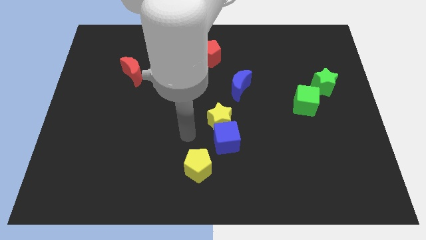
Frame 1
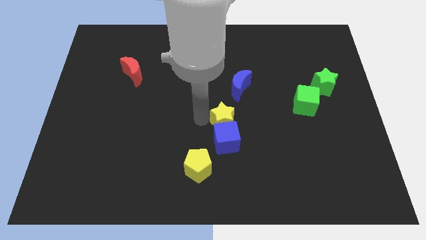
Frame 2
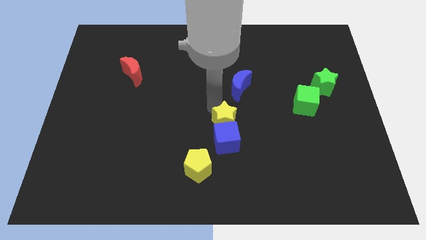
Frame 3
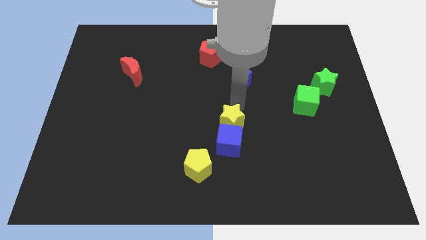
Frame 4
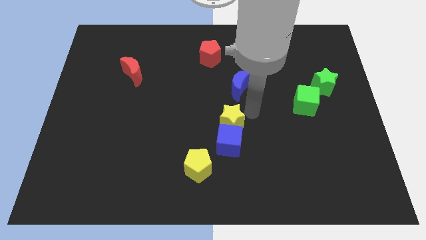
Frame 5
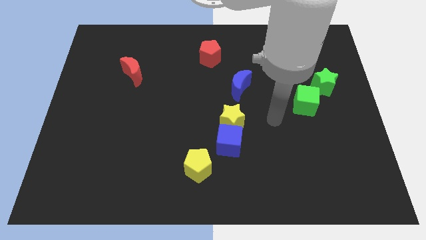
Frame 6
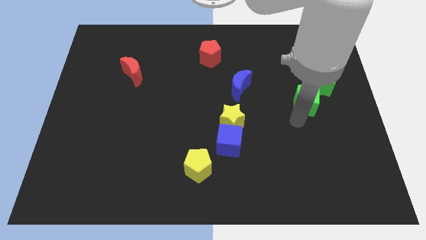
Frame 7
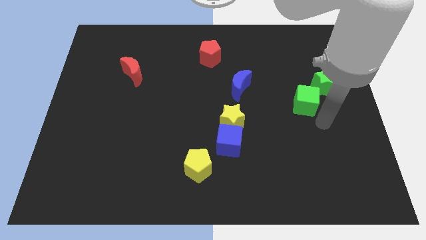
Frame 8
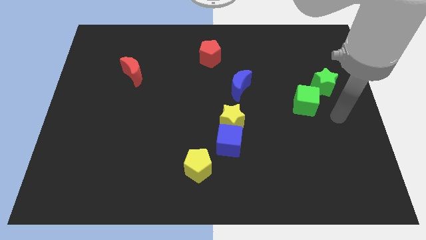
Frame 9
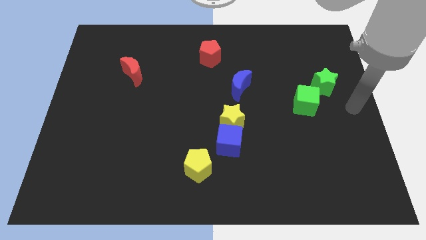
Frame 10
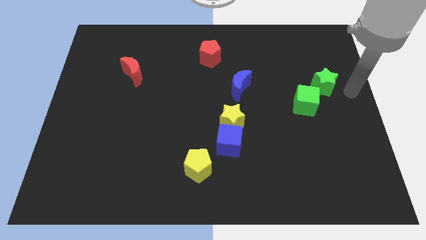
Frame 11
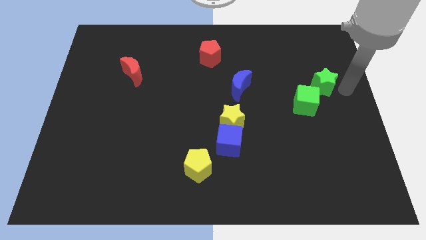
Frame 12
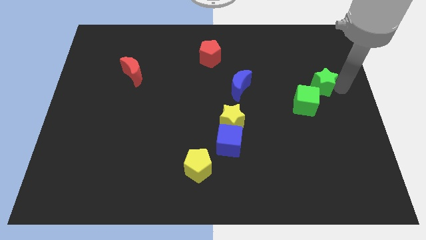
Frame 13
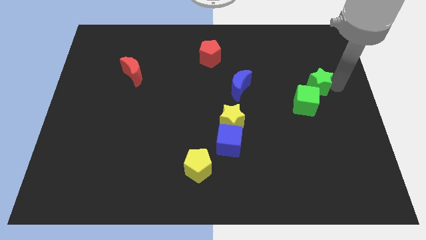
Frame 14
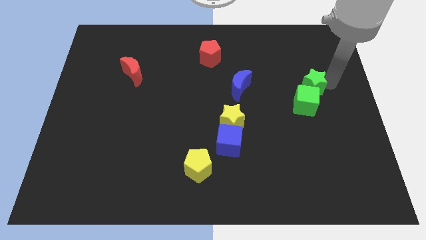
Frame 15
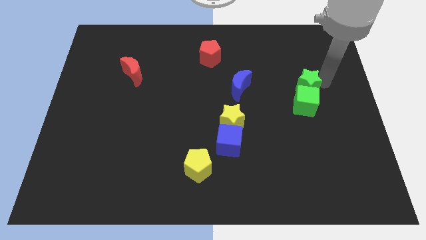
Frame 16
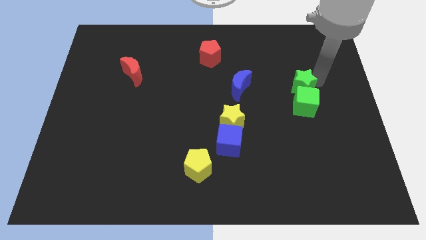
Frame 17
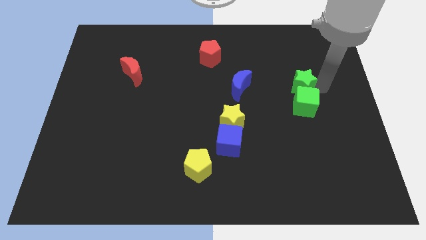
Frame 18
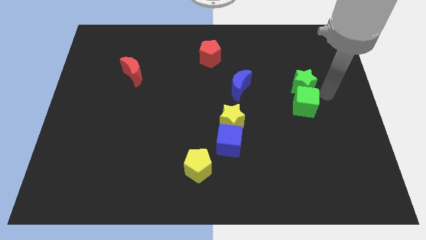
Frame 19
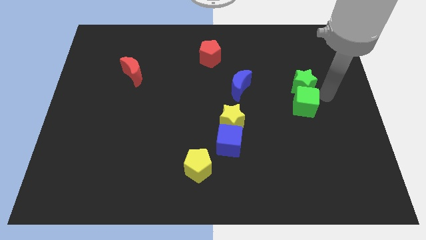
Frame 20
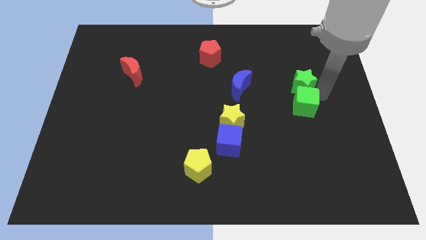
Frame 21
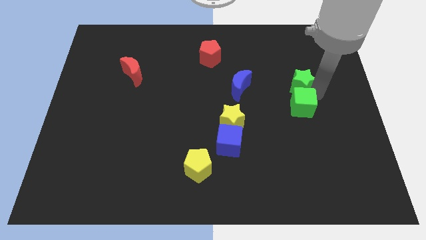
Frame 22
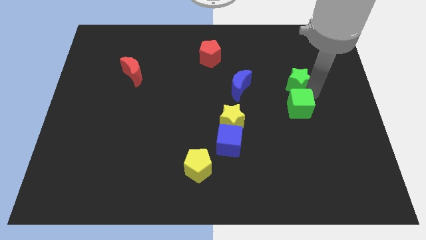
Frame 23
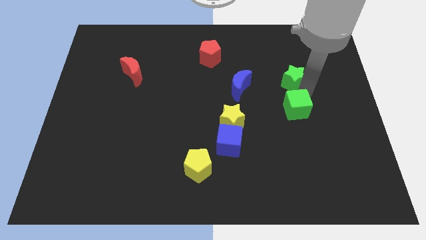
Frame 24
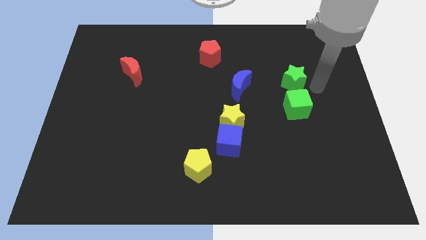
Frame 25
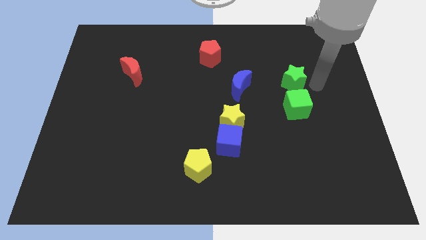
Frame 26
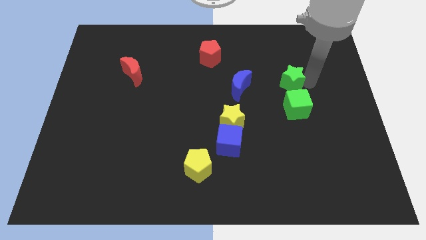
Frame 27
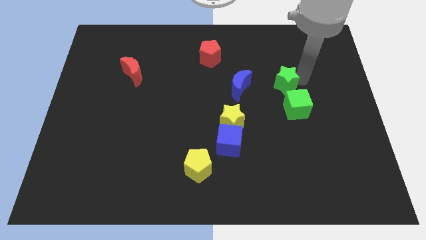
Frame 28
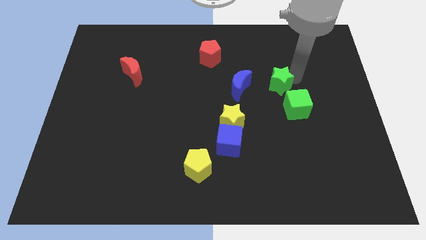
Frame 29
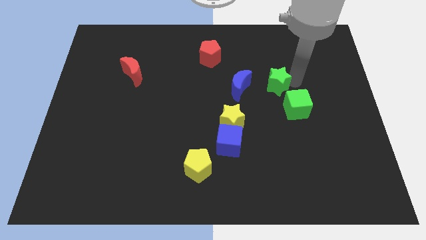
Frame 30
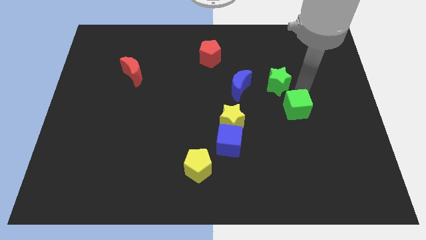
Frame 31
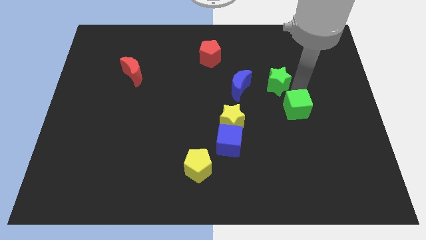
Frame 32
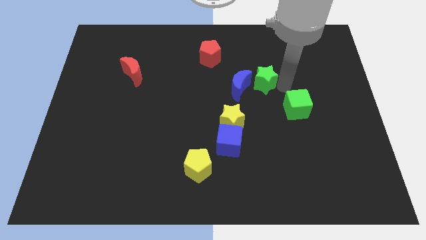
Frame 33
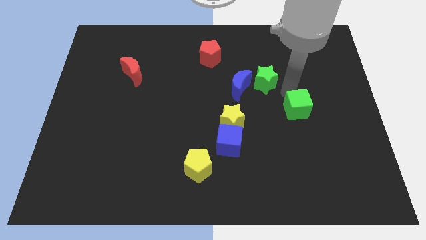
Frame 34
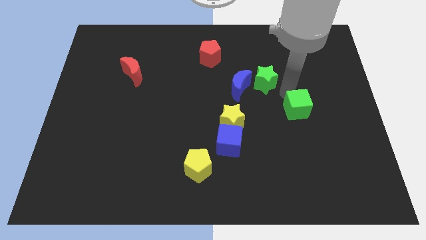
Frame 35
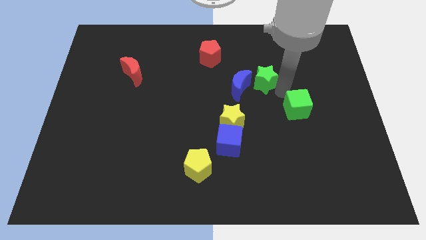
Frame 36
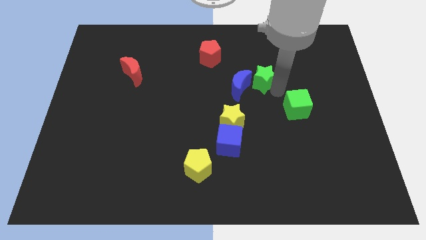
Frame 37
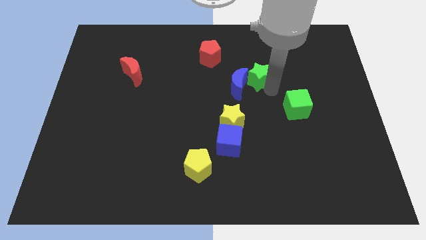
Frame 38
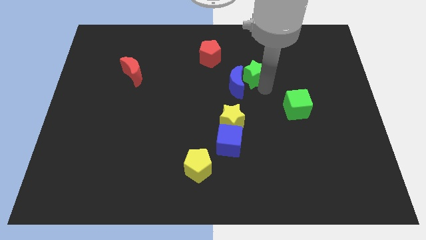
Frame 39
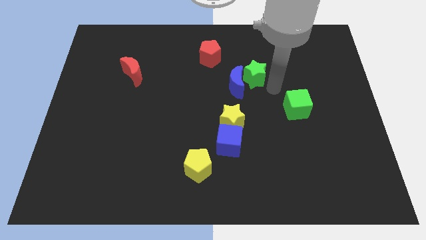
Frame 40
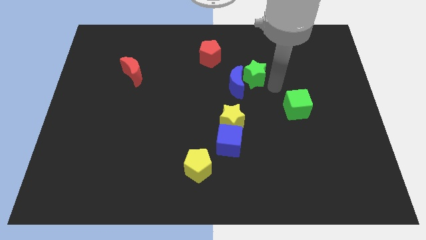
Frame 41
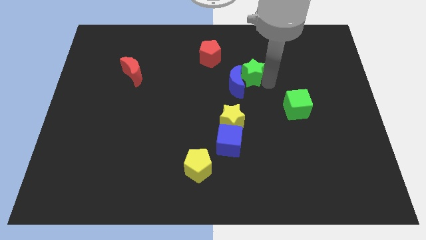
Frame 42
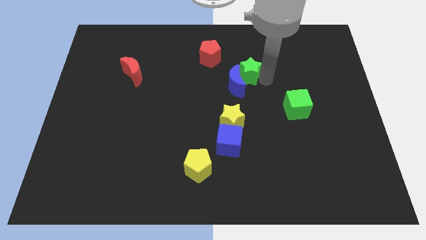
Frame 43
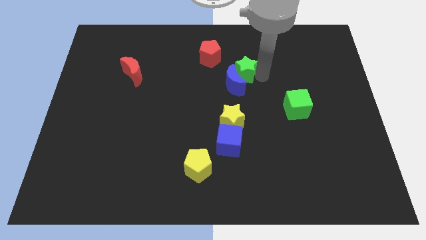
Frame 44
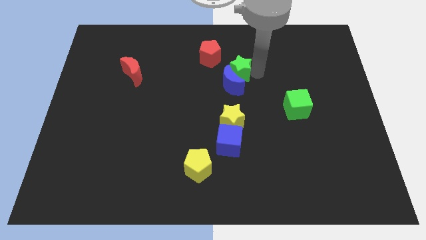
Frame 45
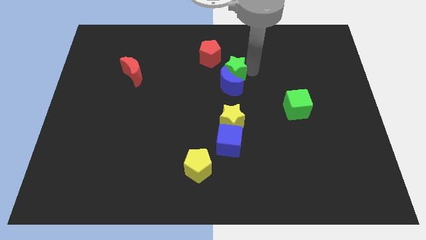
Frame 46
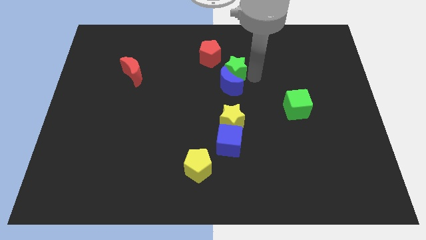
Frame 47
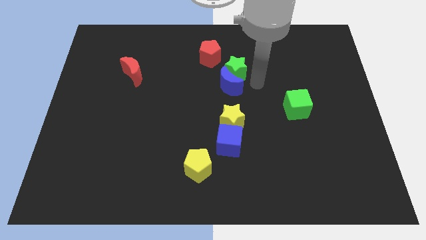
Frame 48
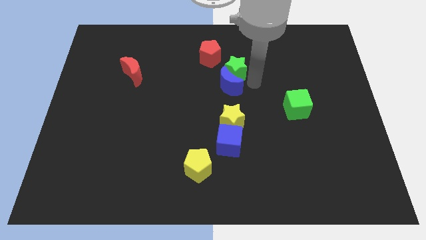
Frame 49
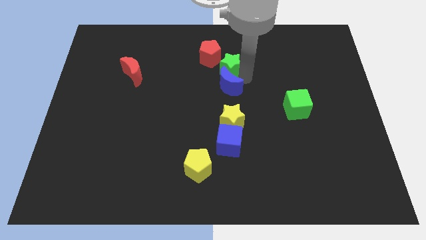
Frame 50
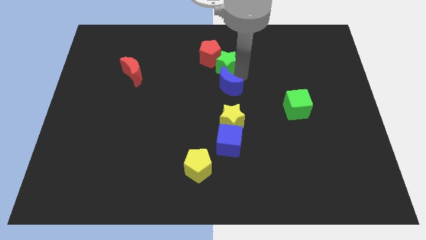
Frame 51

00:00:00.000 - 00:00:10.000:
put the green star towards the red pentagon

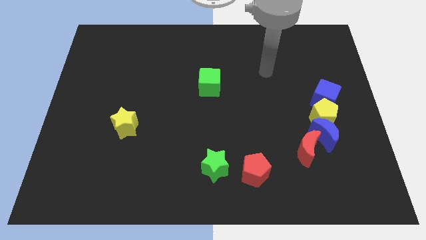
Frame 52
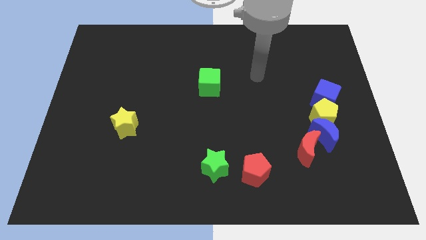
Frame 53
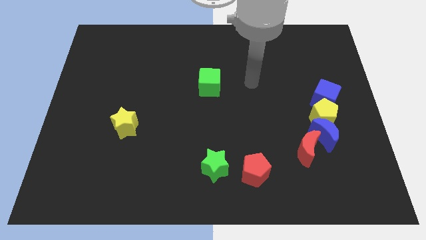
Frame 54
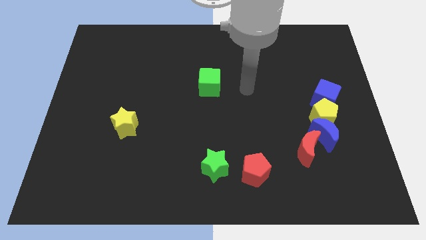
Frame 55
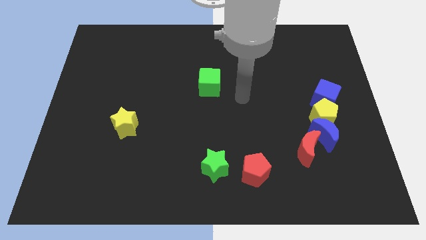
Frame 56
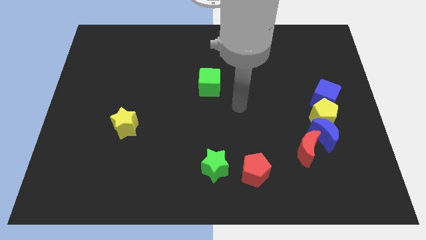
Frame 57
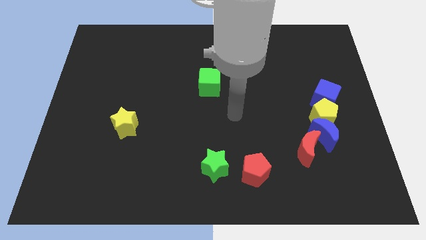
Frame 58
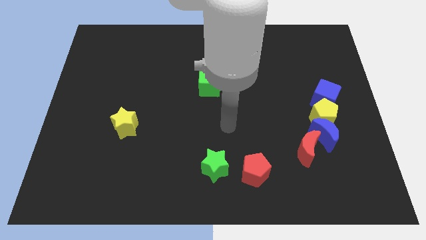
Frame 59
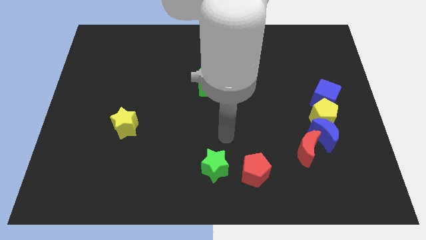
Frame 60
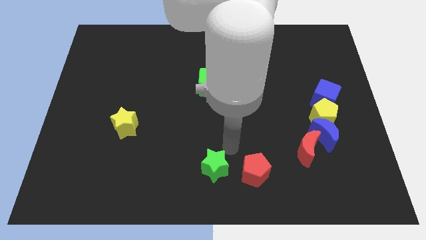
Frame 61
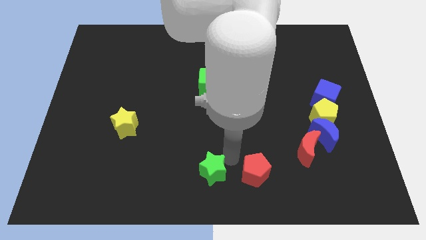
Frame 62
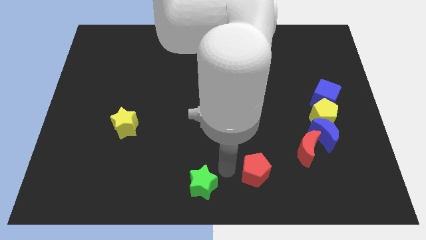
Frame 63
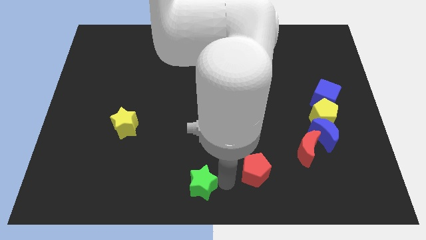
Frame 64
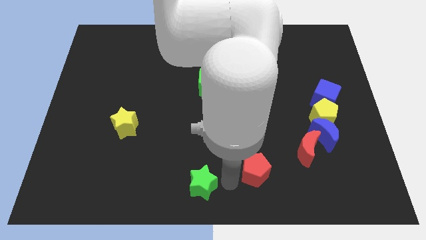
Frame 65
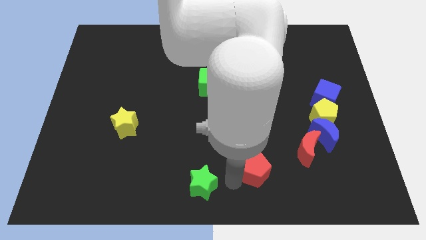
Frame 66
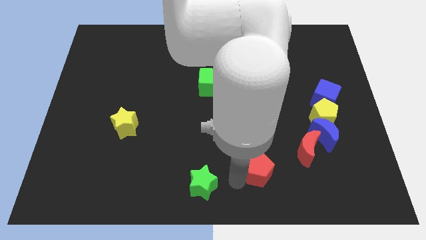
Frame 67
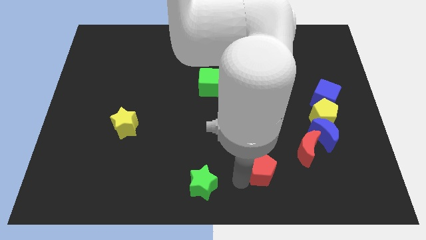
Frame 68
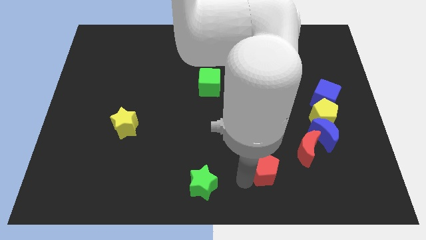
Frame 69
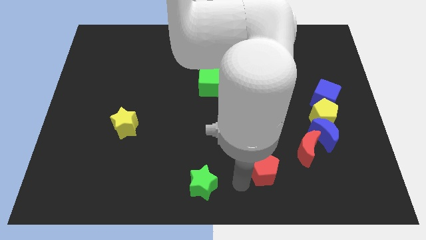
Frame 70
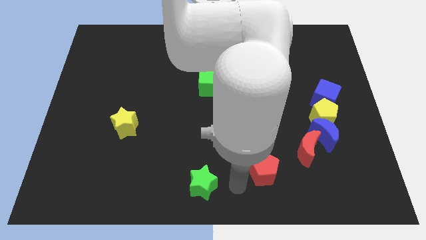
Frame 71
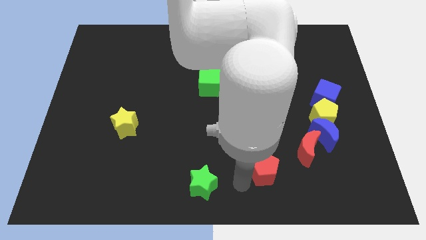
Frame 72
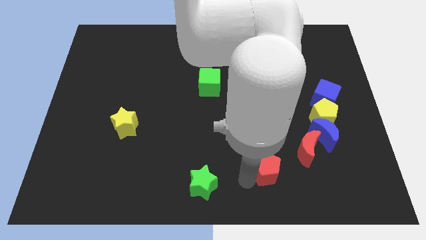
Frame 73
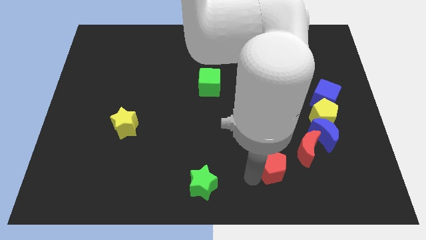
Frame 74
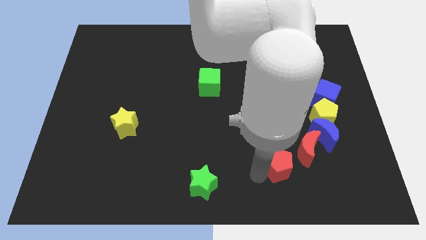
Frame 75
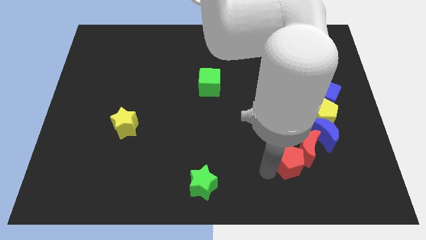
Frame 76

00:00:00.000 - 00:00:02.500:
push the red pentagon close to the red moon
